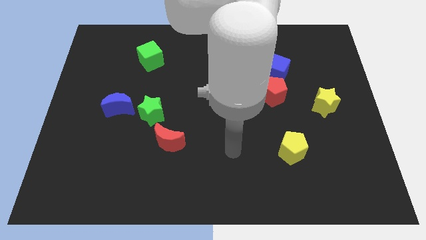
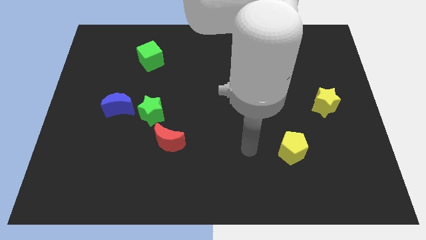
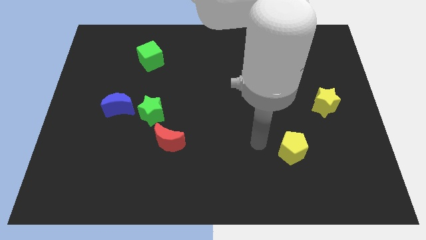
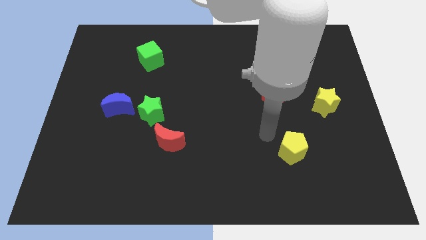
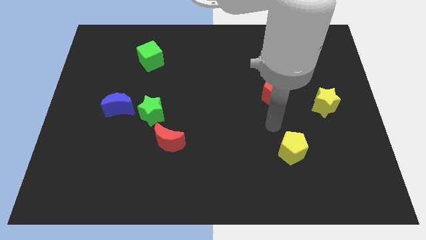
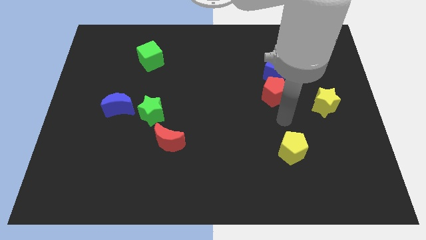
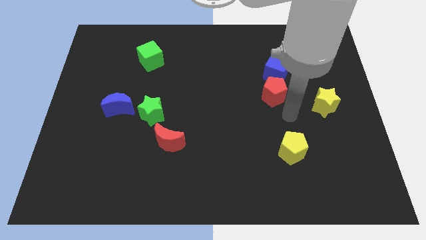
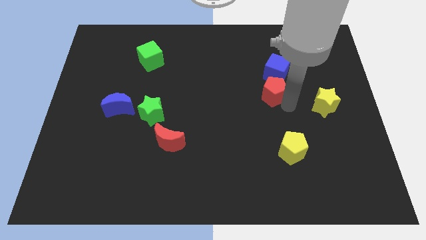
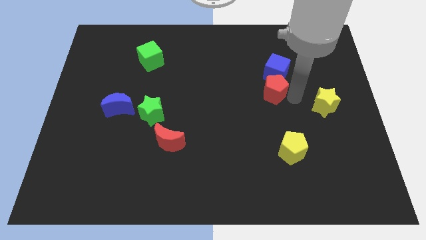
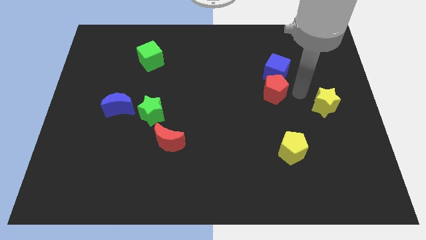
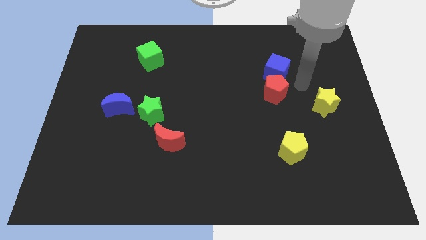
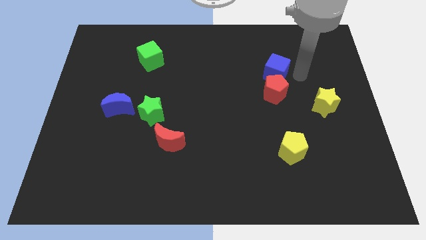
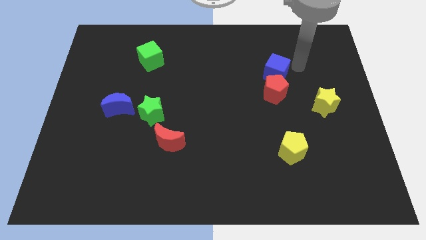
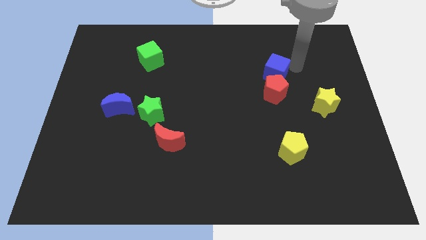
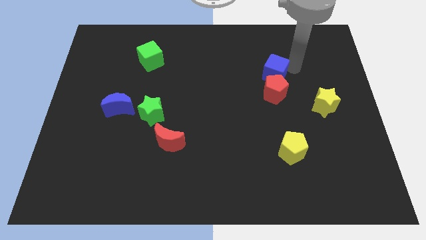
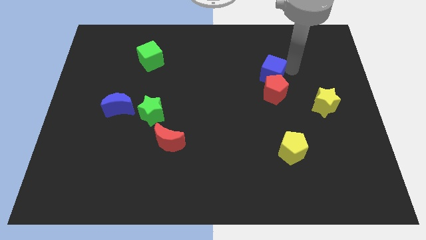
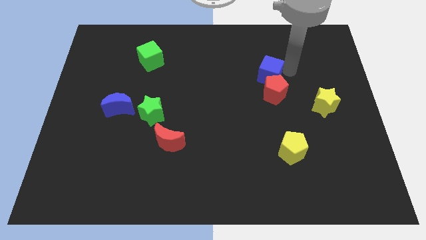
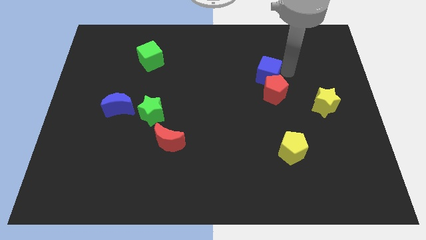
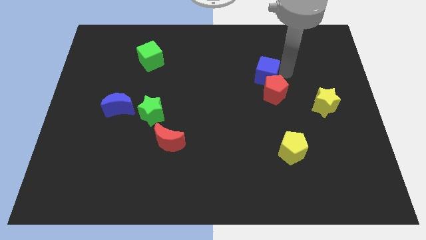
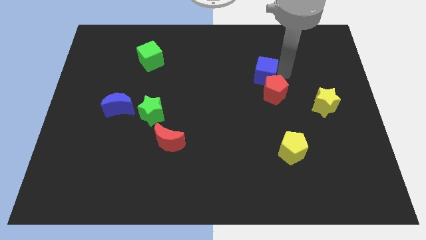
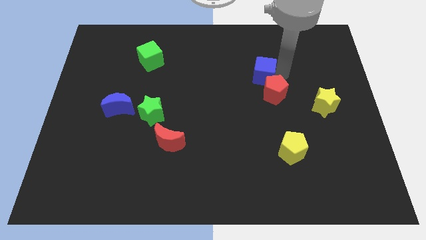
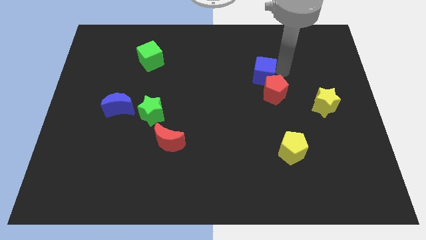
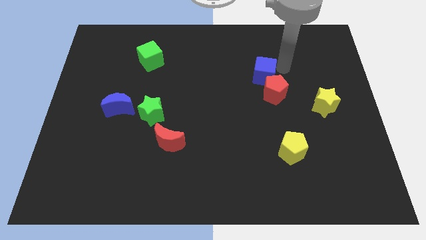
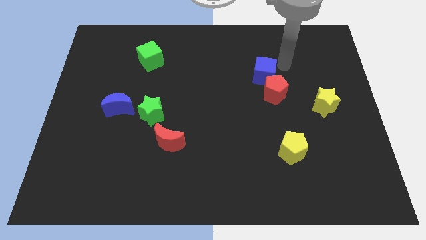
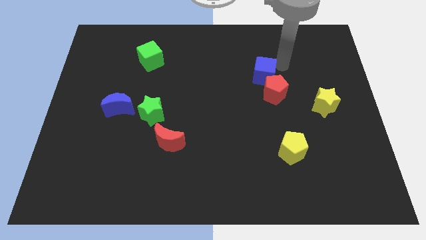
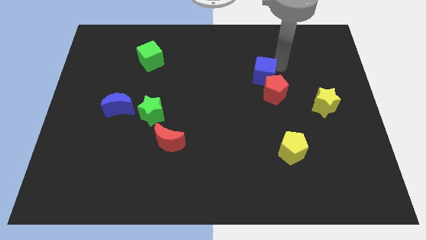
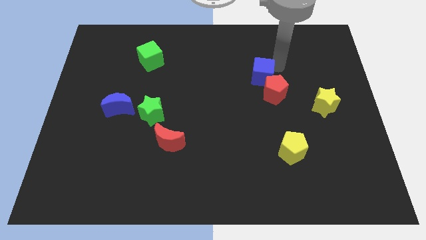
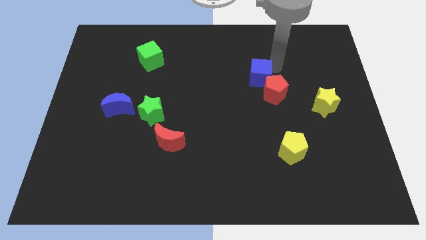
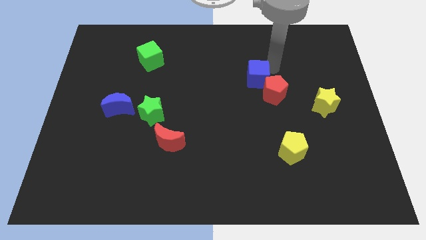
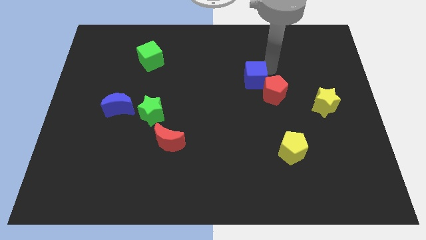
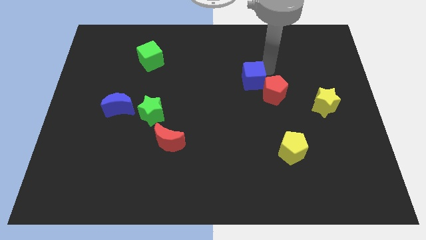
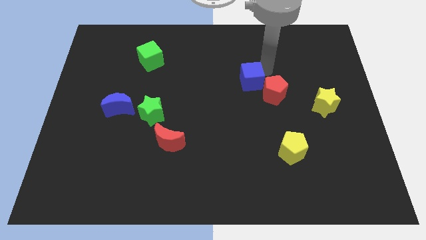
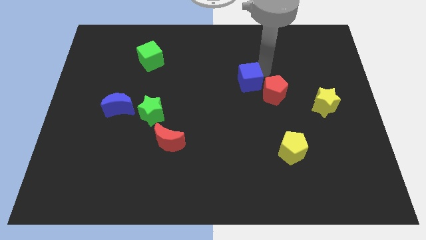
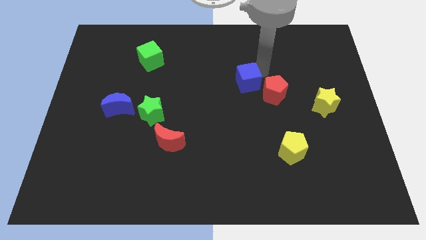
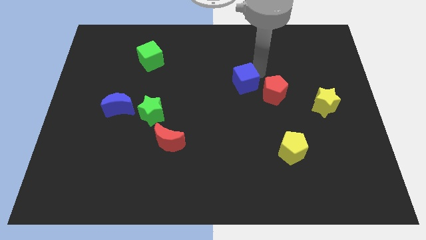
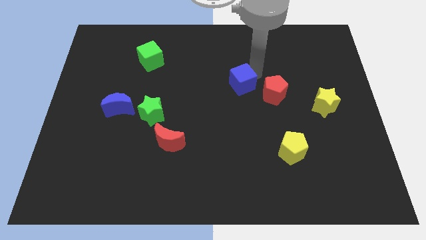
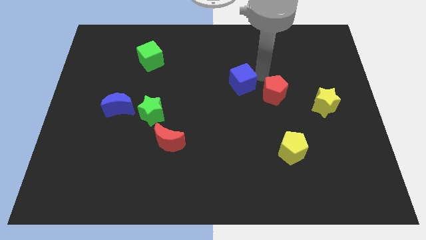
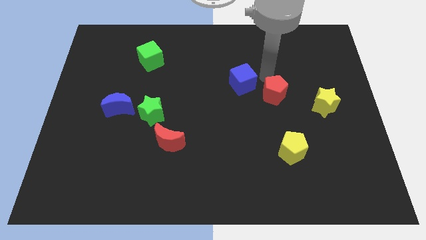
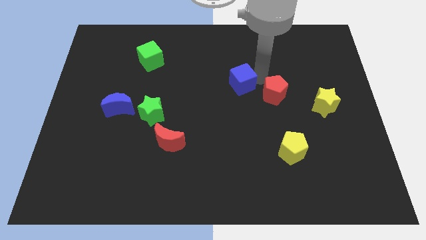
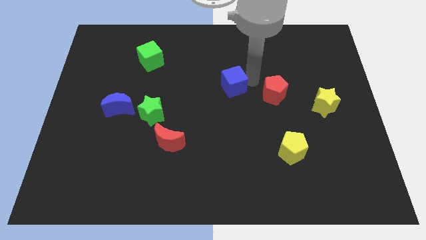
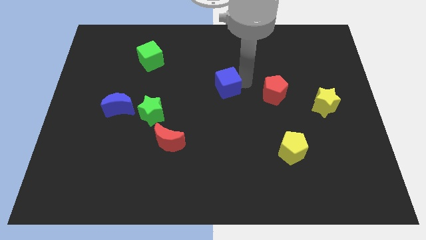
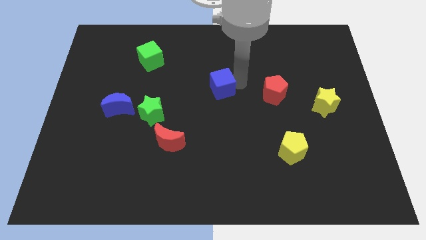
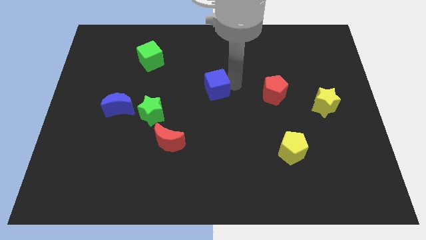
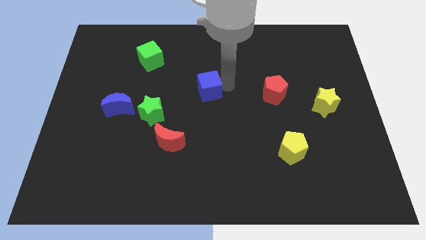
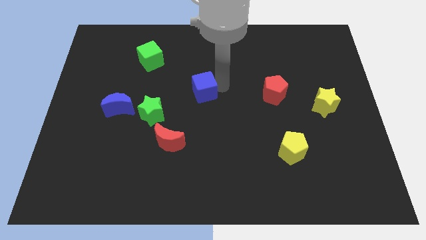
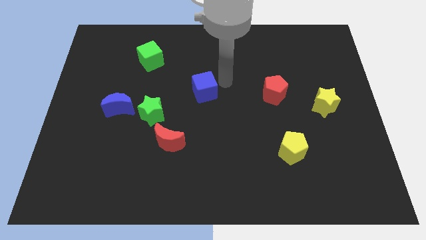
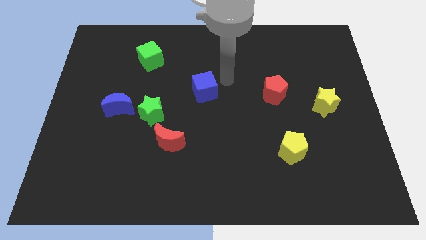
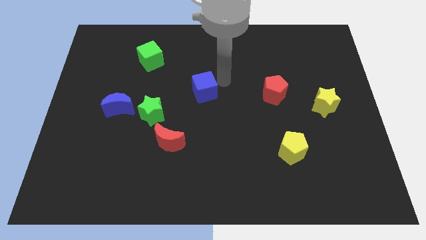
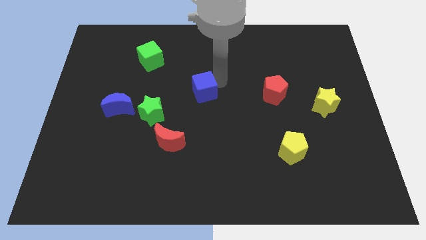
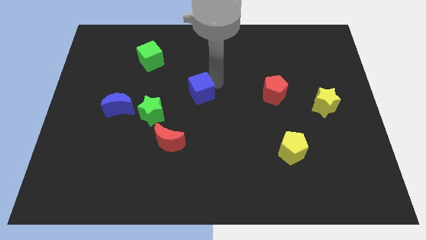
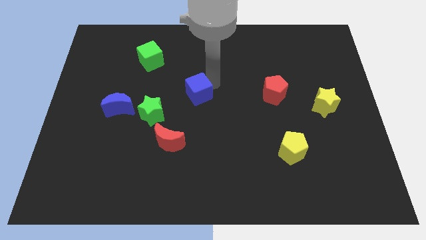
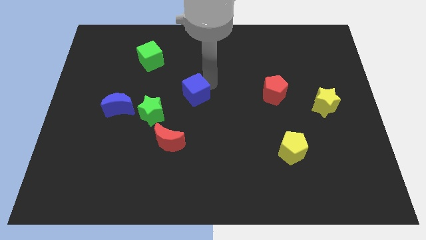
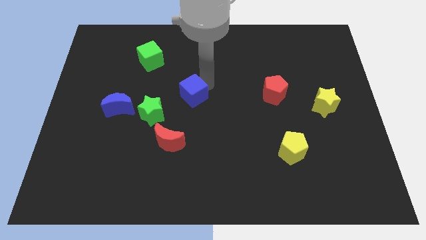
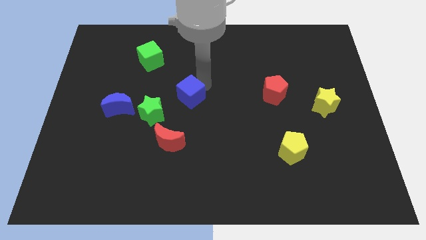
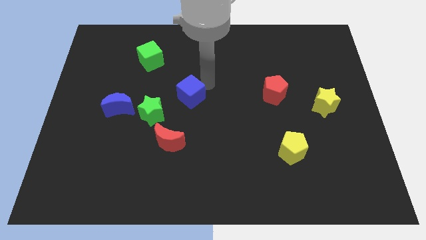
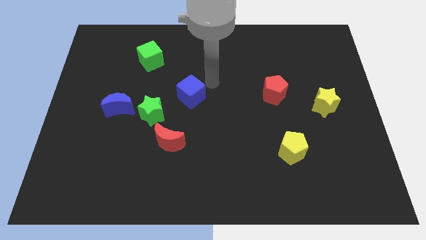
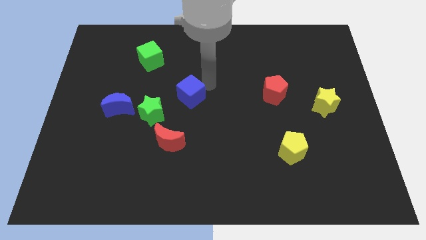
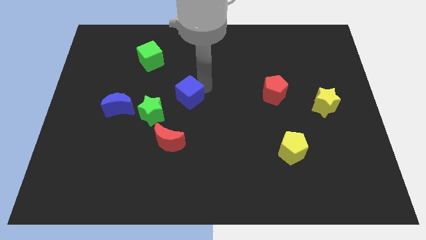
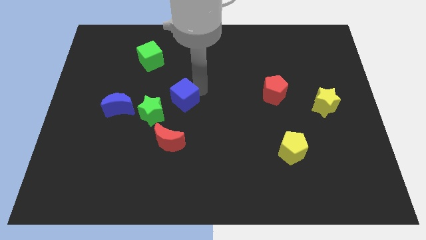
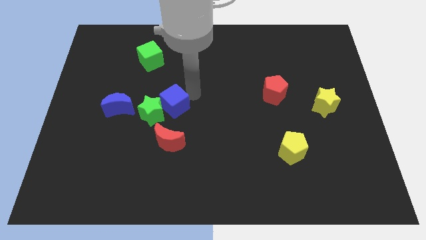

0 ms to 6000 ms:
put the blue cube close to the green star

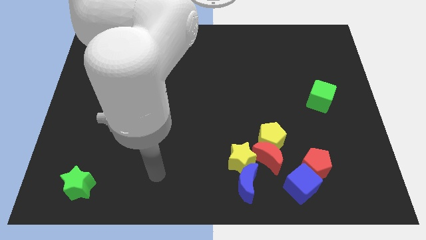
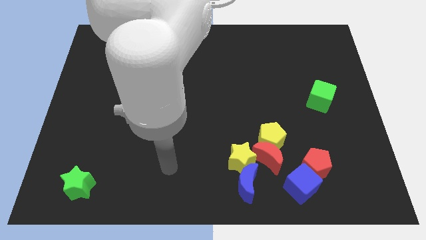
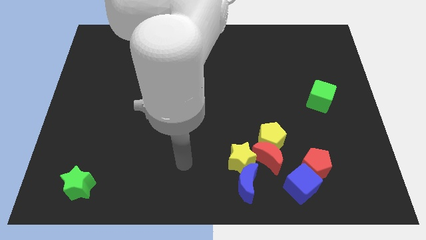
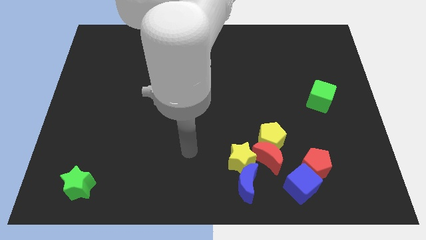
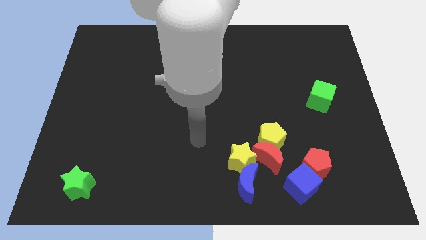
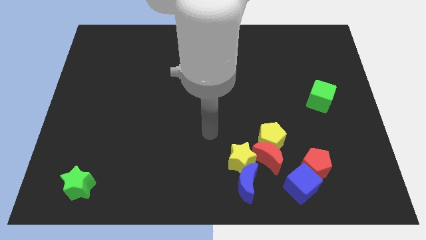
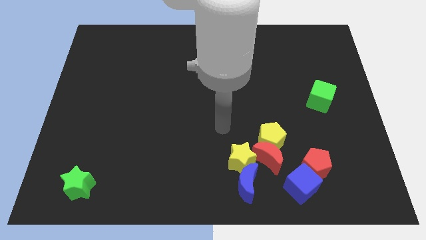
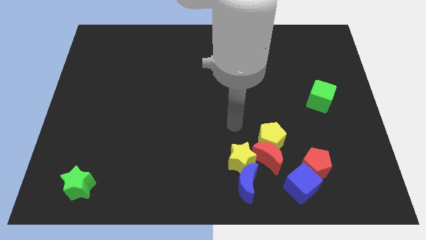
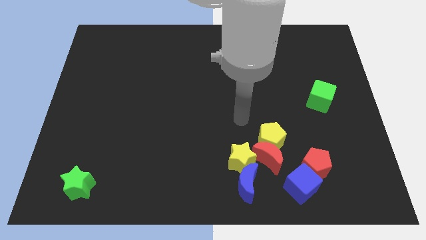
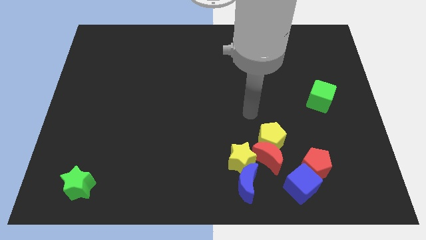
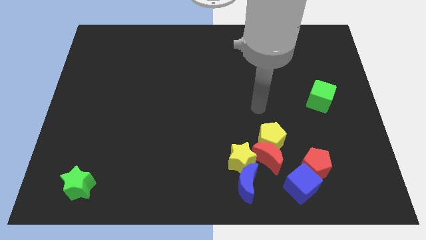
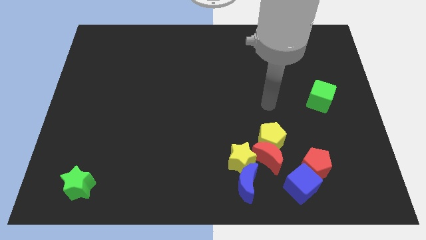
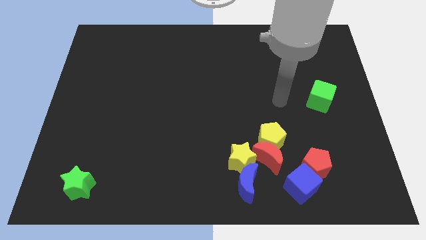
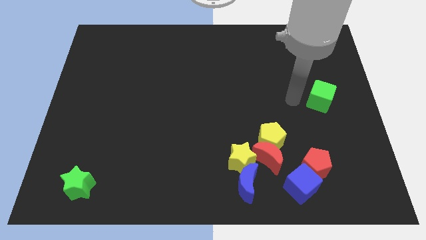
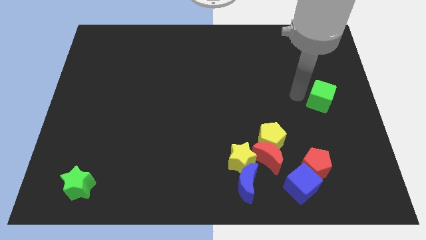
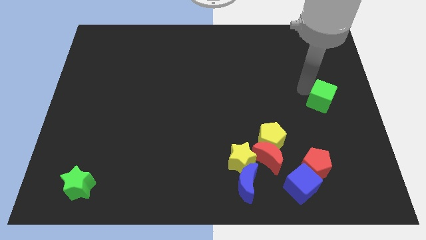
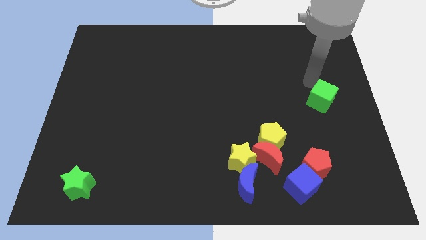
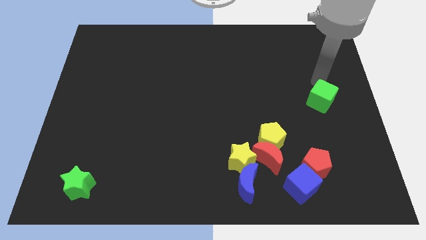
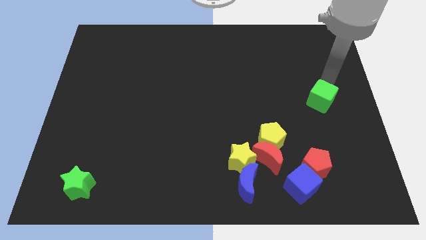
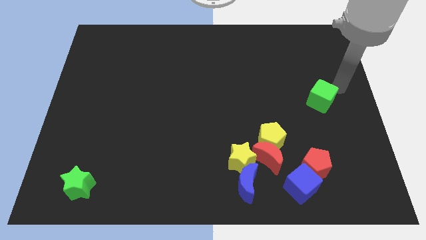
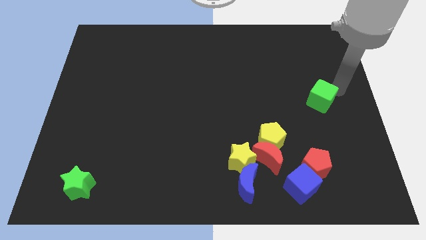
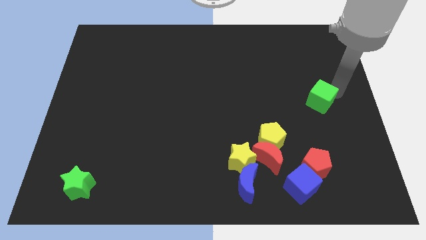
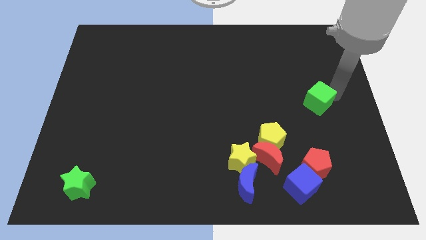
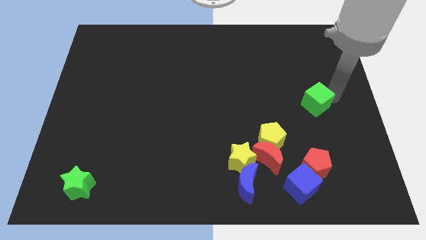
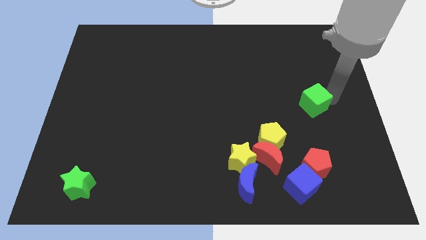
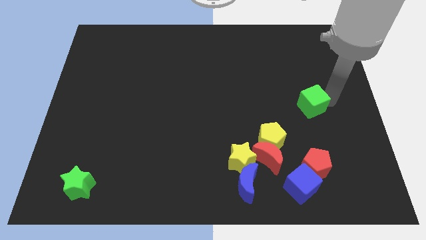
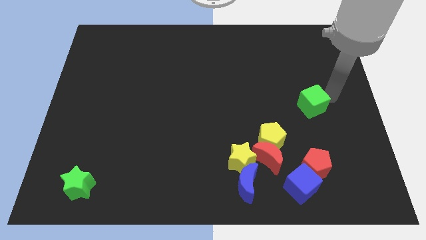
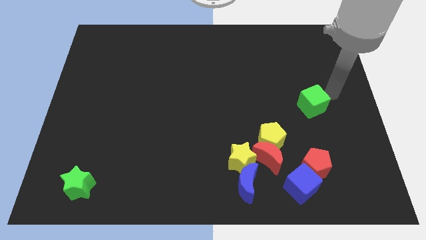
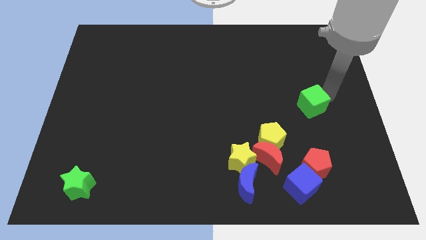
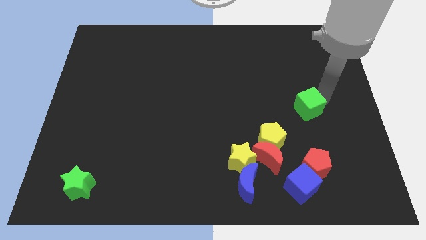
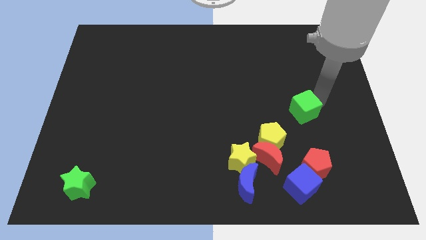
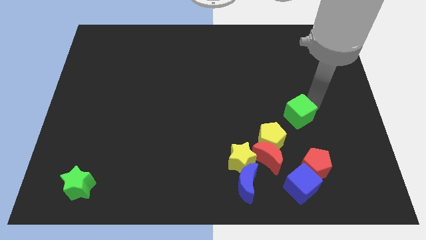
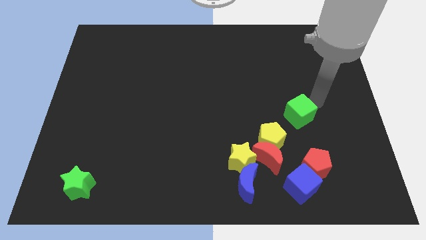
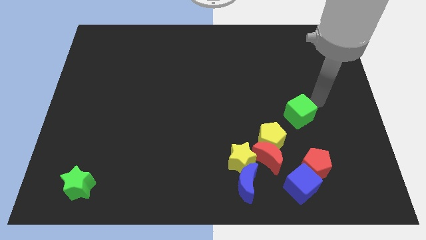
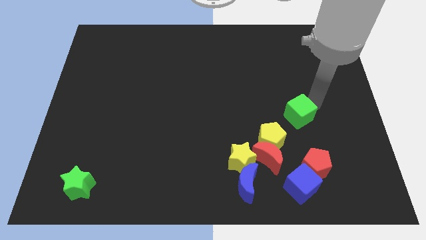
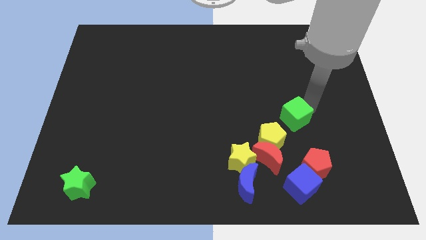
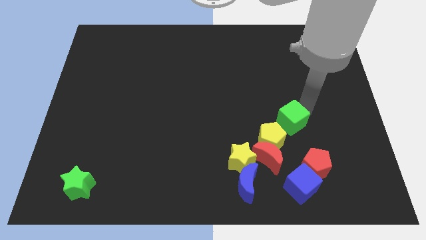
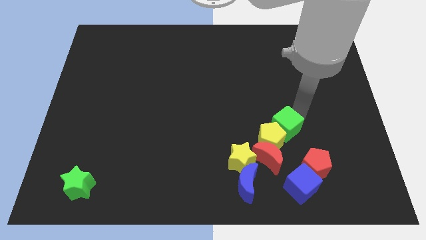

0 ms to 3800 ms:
put the green cube towards the yellow pentagon
